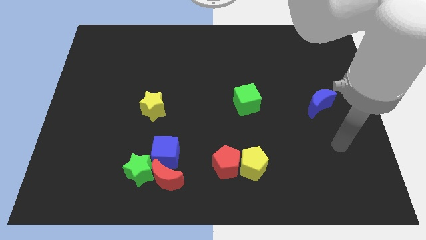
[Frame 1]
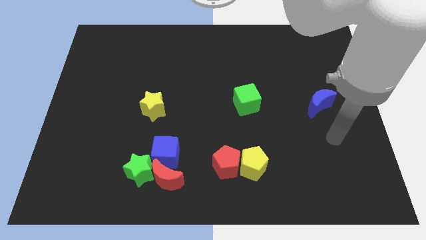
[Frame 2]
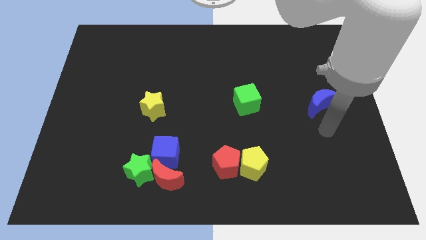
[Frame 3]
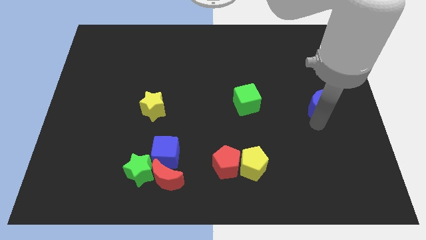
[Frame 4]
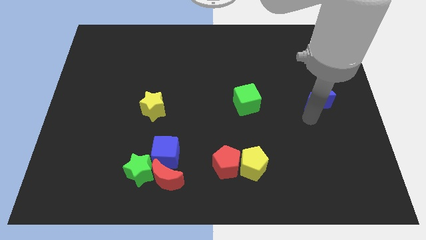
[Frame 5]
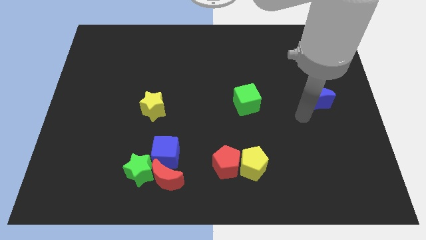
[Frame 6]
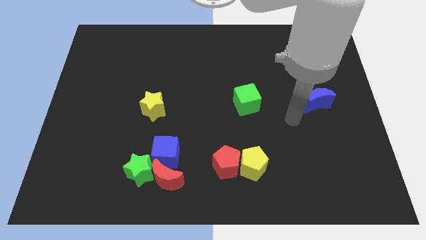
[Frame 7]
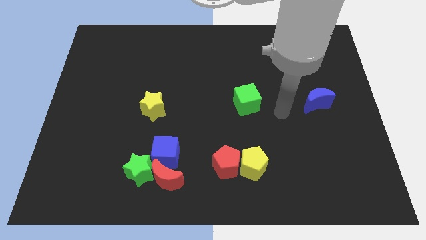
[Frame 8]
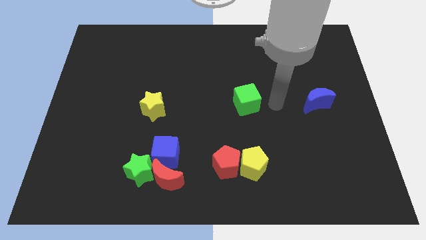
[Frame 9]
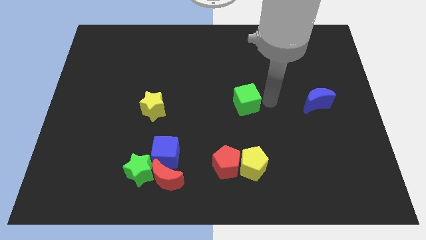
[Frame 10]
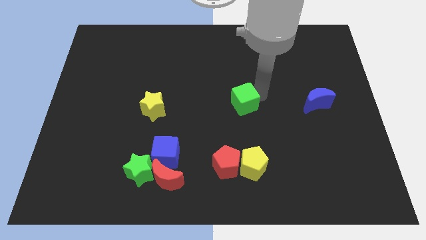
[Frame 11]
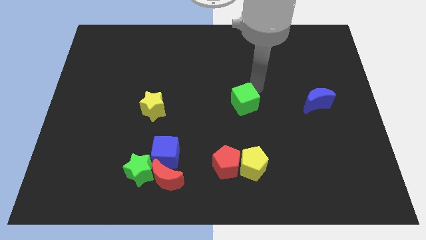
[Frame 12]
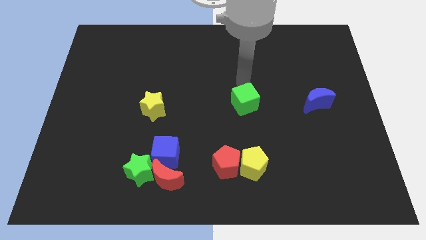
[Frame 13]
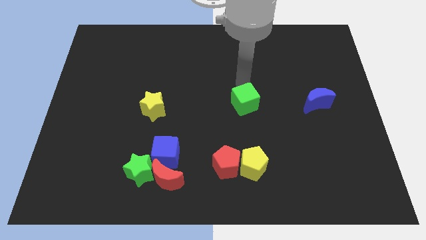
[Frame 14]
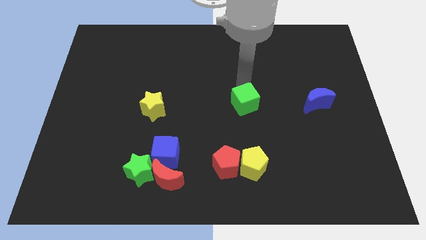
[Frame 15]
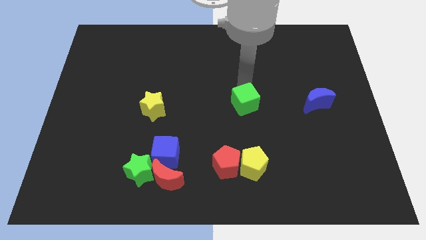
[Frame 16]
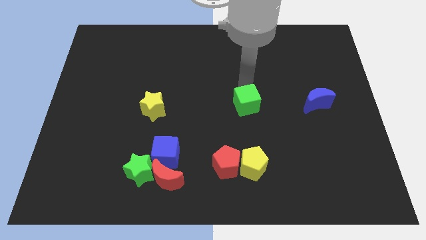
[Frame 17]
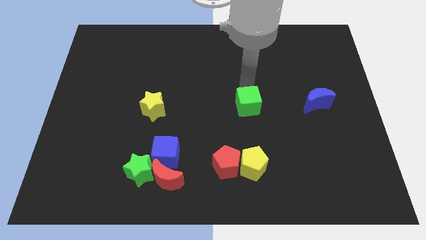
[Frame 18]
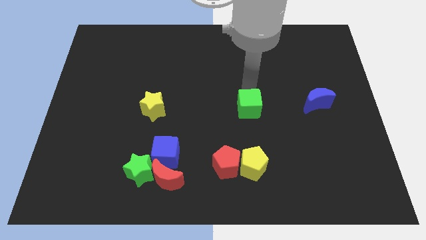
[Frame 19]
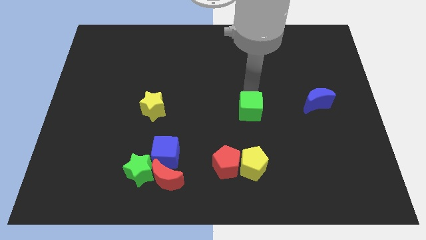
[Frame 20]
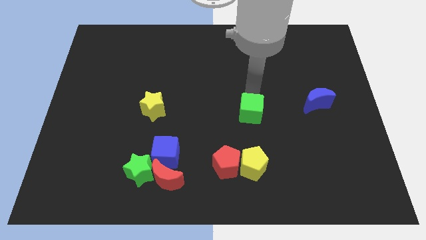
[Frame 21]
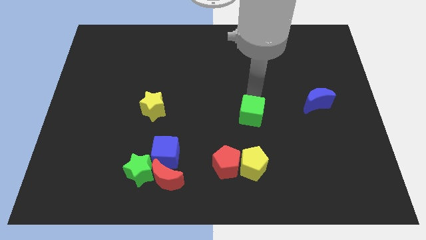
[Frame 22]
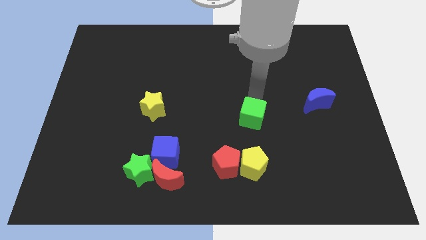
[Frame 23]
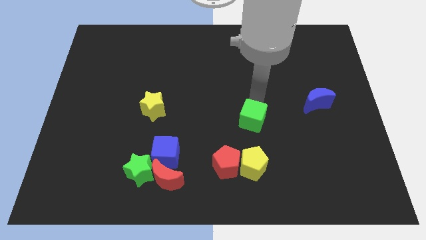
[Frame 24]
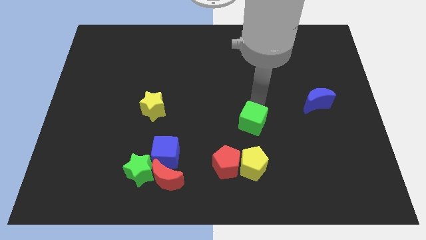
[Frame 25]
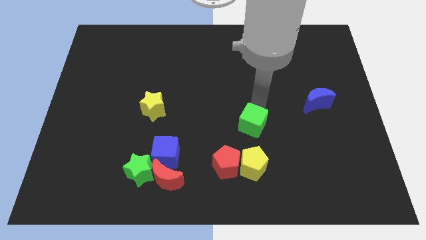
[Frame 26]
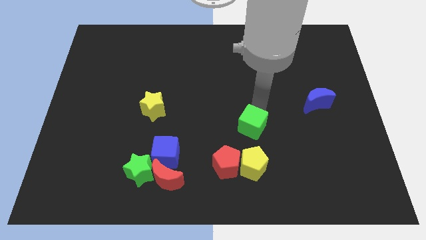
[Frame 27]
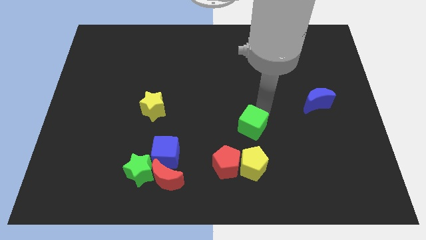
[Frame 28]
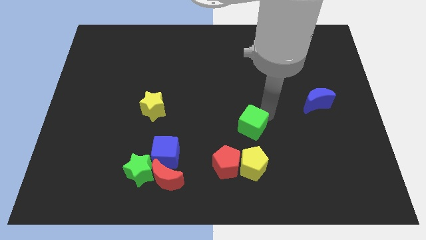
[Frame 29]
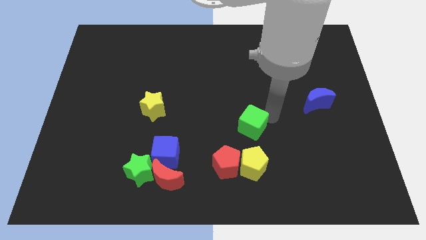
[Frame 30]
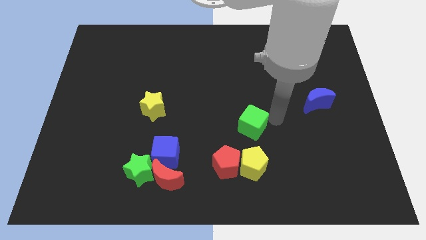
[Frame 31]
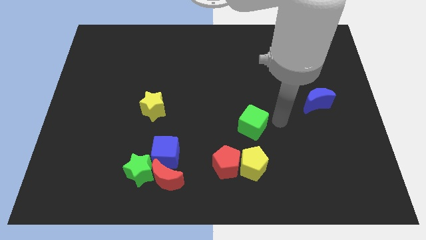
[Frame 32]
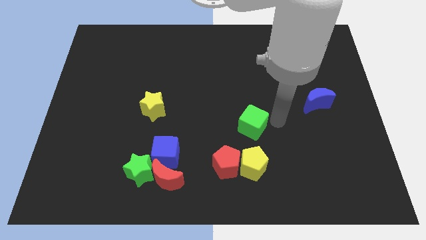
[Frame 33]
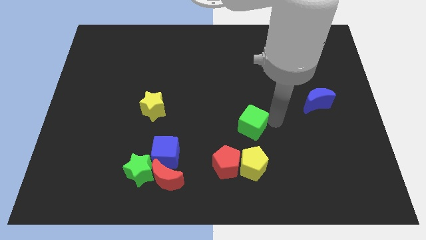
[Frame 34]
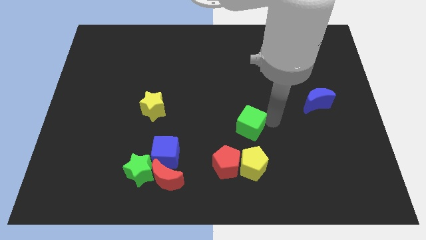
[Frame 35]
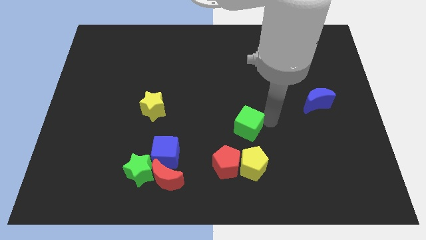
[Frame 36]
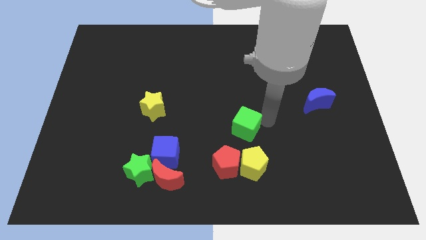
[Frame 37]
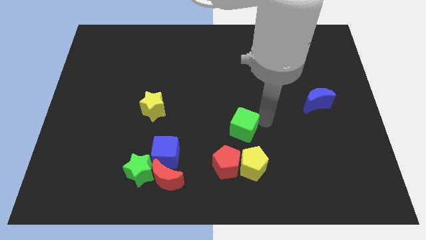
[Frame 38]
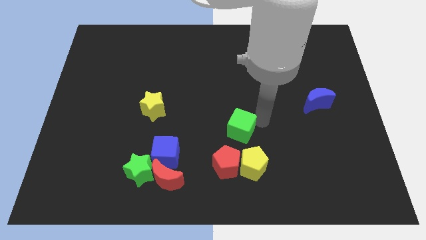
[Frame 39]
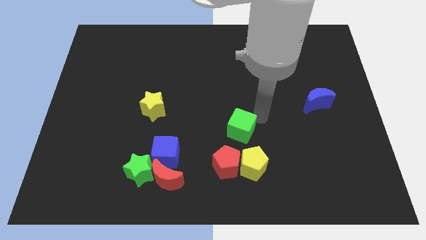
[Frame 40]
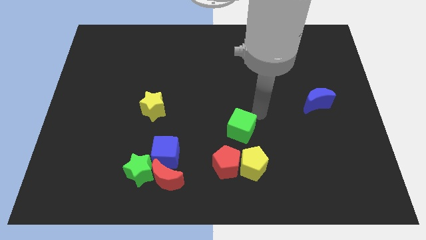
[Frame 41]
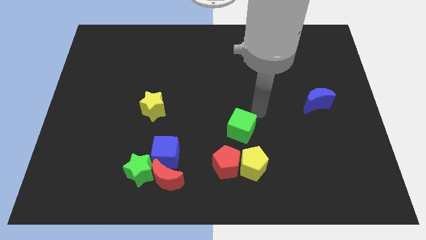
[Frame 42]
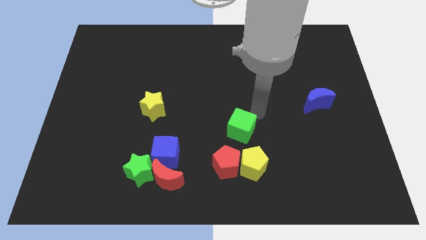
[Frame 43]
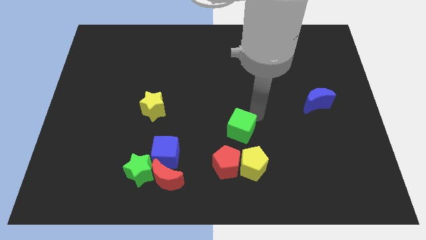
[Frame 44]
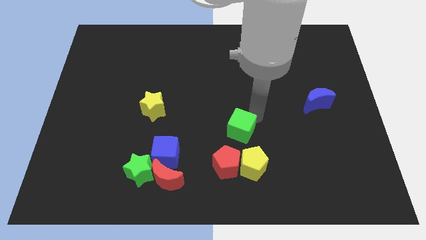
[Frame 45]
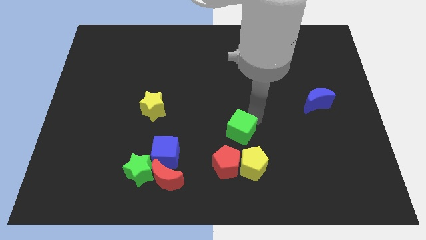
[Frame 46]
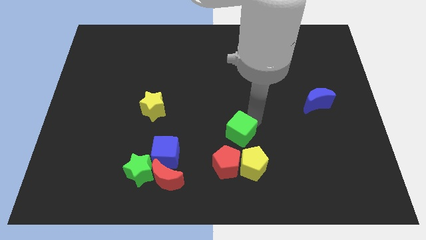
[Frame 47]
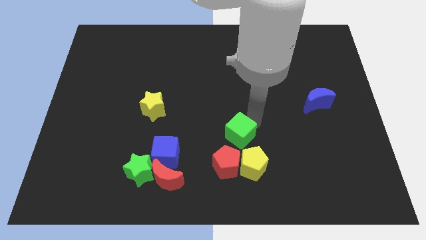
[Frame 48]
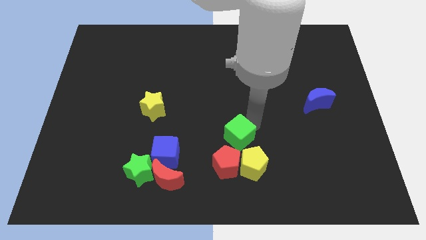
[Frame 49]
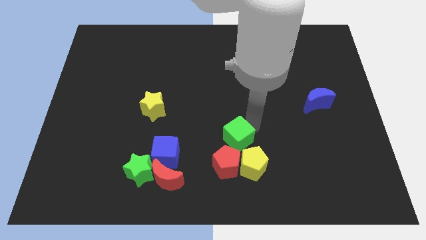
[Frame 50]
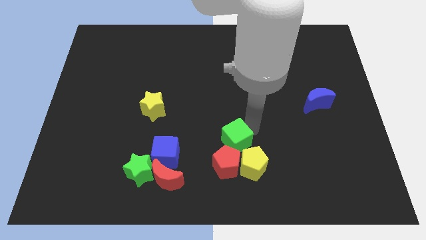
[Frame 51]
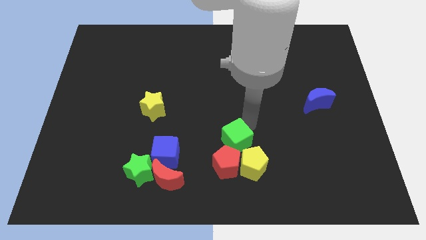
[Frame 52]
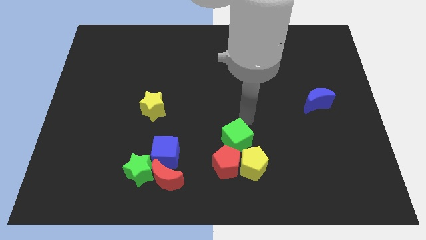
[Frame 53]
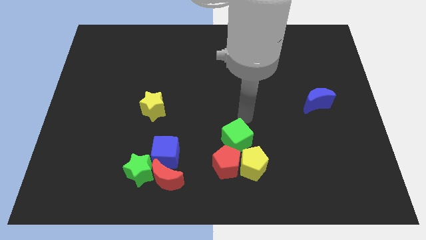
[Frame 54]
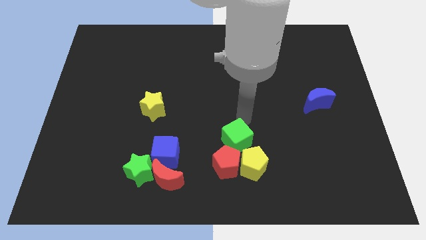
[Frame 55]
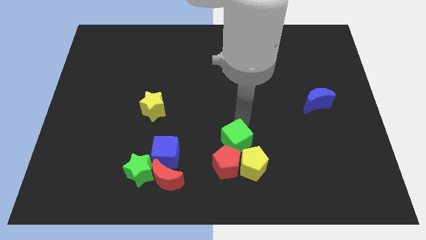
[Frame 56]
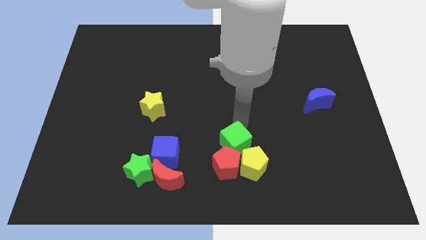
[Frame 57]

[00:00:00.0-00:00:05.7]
move the green cube to the red pentagon
